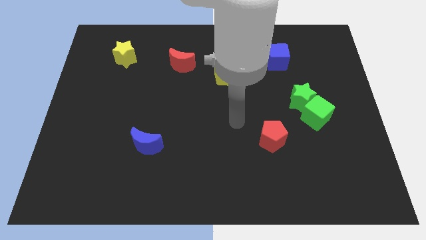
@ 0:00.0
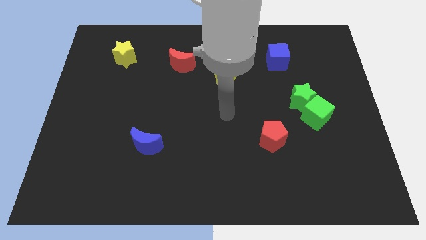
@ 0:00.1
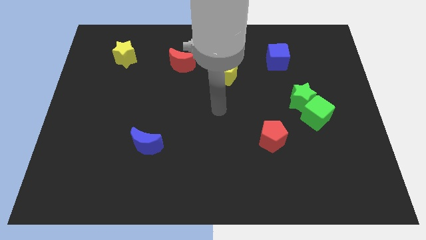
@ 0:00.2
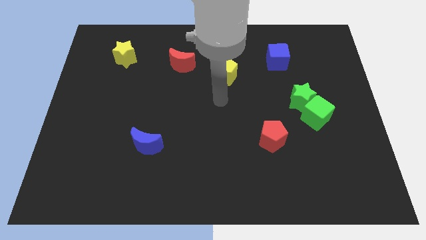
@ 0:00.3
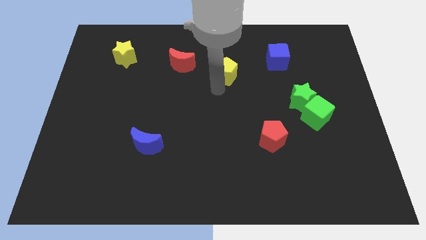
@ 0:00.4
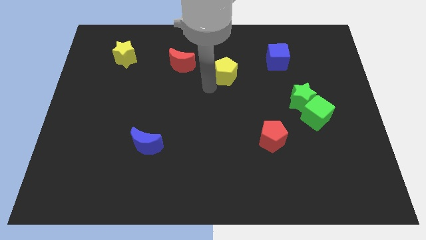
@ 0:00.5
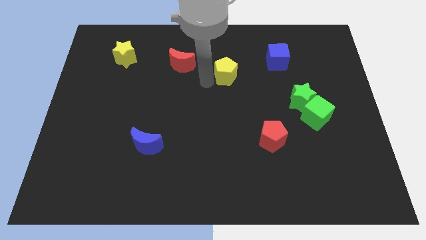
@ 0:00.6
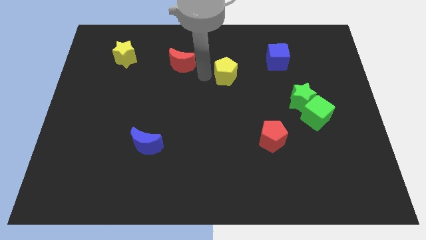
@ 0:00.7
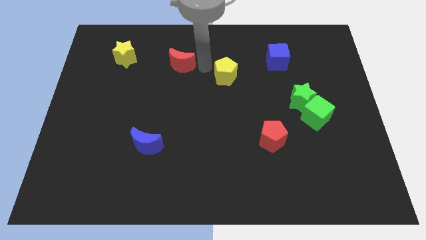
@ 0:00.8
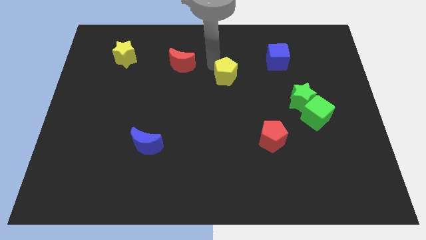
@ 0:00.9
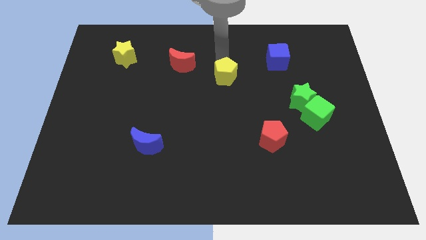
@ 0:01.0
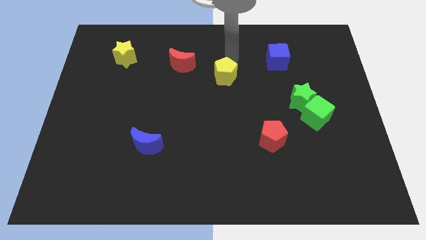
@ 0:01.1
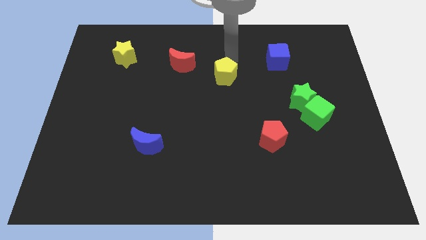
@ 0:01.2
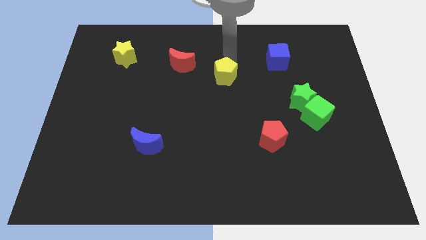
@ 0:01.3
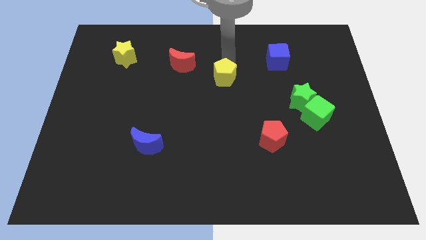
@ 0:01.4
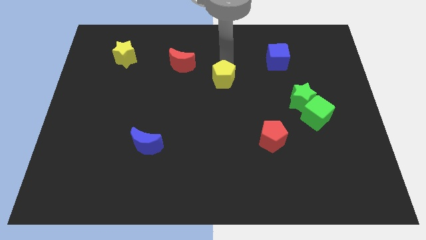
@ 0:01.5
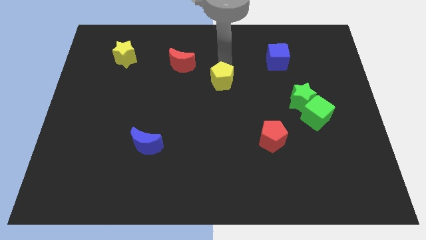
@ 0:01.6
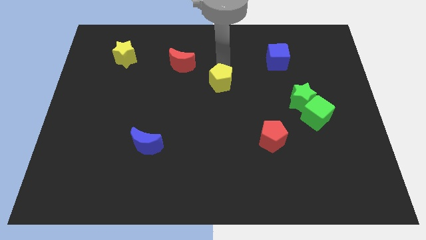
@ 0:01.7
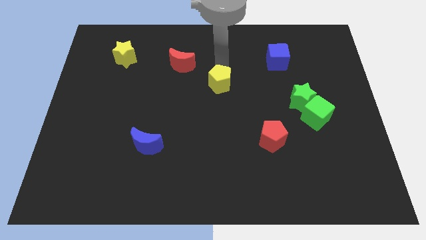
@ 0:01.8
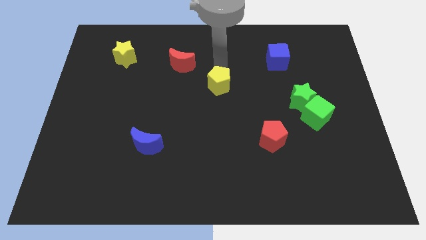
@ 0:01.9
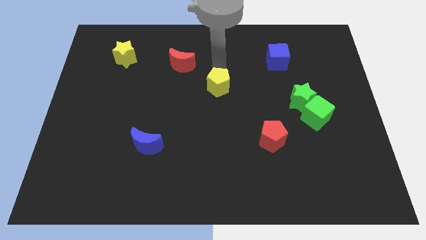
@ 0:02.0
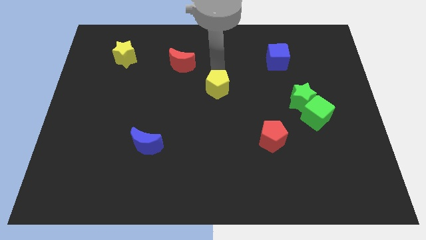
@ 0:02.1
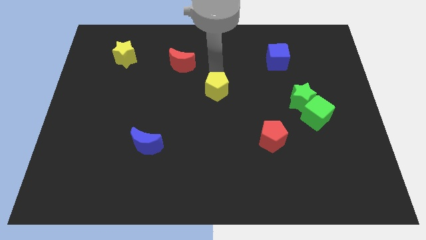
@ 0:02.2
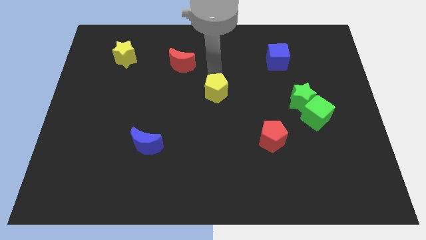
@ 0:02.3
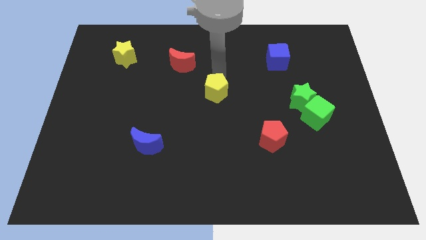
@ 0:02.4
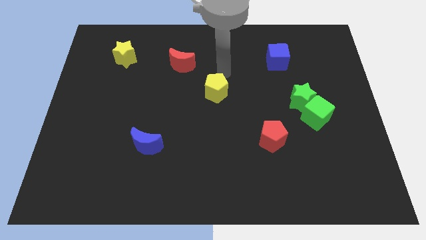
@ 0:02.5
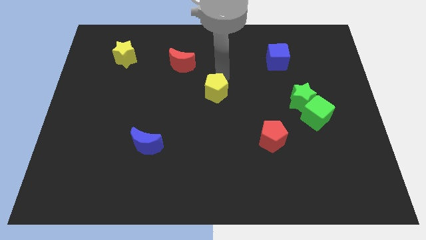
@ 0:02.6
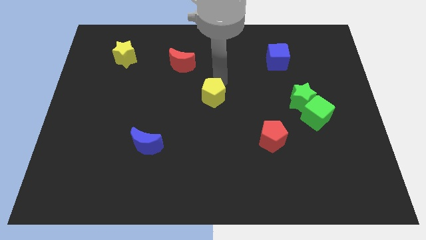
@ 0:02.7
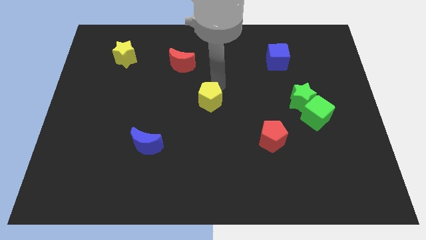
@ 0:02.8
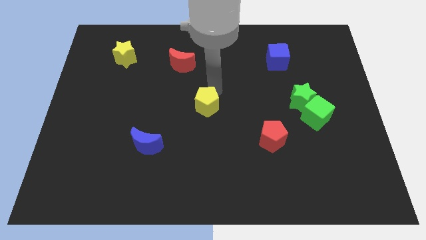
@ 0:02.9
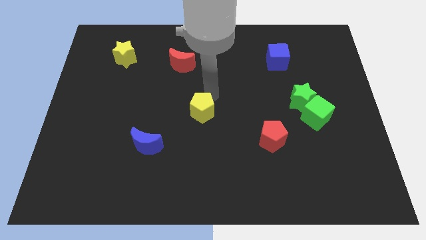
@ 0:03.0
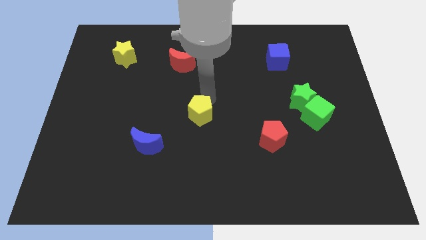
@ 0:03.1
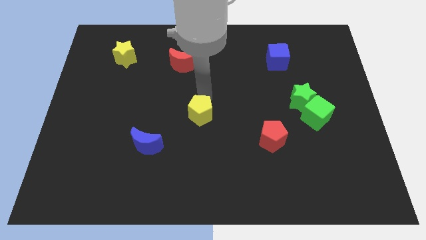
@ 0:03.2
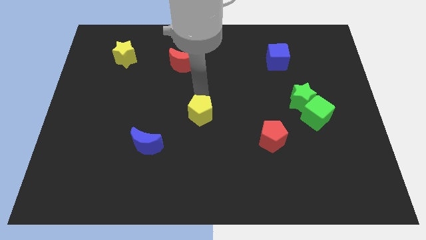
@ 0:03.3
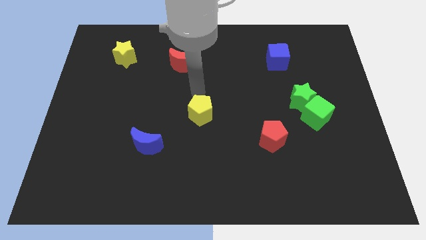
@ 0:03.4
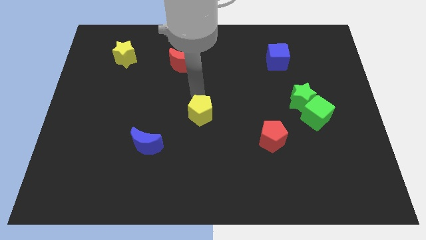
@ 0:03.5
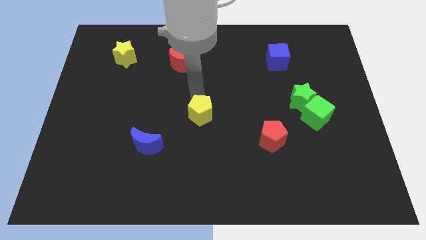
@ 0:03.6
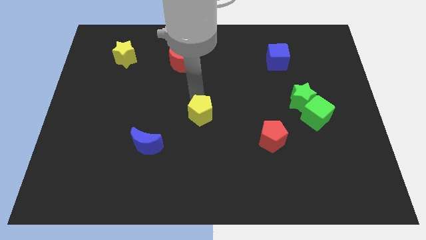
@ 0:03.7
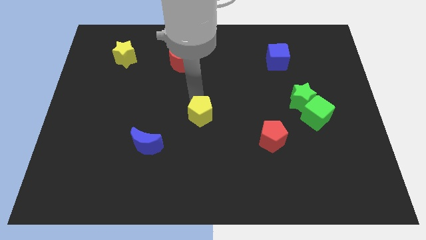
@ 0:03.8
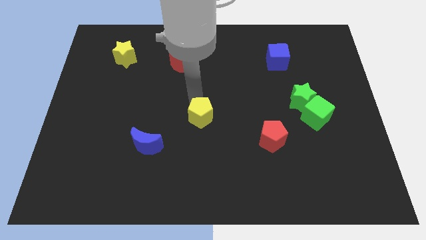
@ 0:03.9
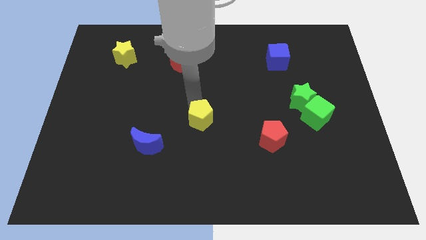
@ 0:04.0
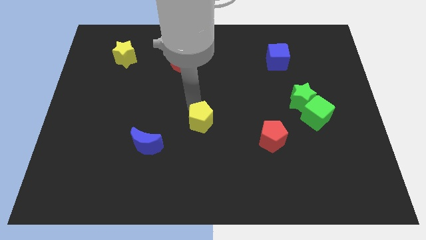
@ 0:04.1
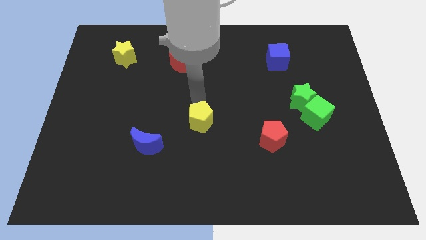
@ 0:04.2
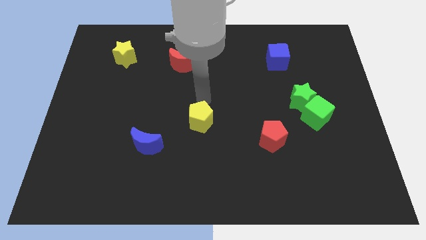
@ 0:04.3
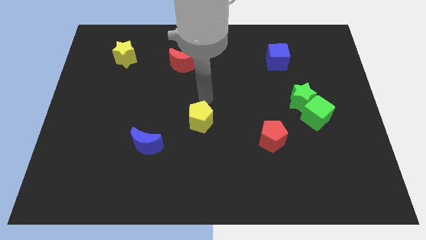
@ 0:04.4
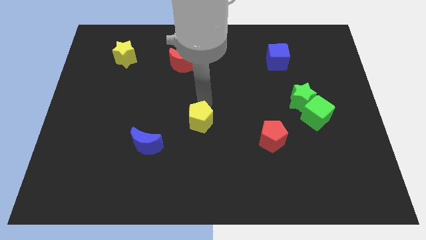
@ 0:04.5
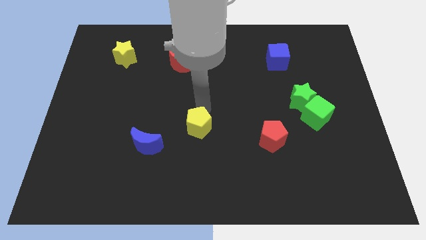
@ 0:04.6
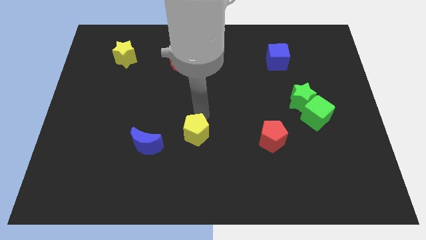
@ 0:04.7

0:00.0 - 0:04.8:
push the yellow pentagon to the right side of the blue moon

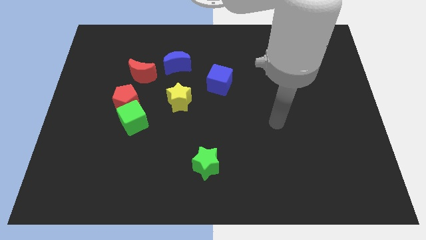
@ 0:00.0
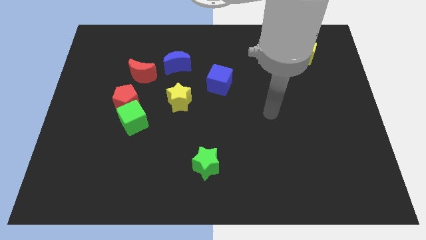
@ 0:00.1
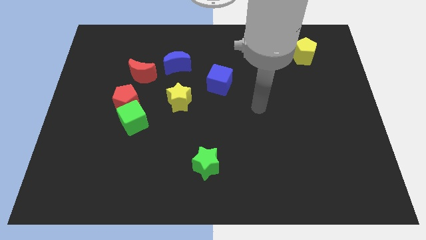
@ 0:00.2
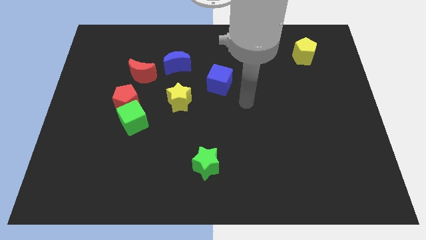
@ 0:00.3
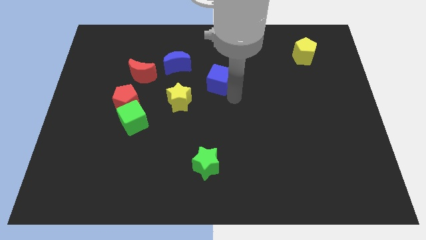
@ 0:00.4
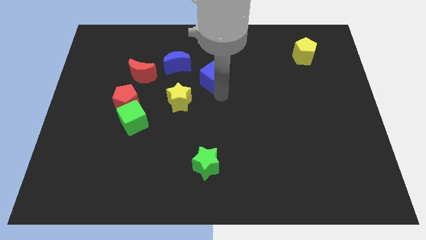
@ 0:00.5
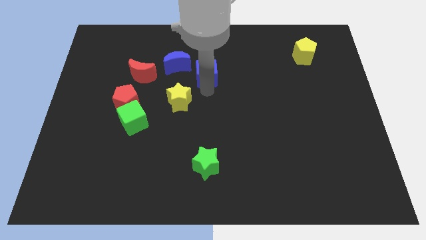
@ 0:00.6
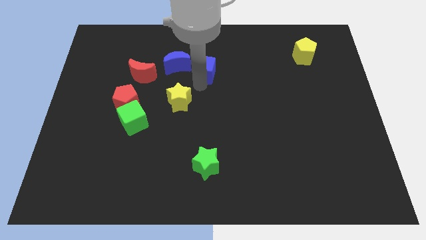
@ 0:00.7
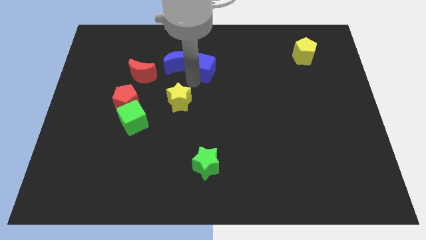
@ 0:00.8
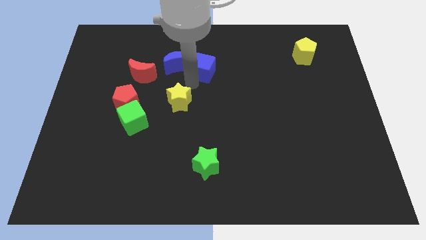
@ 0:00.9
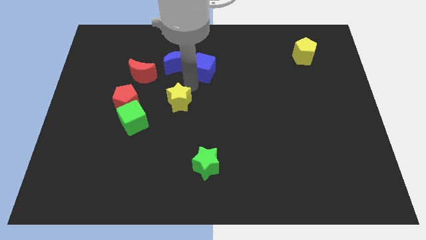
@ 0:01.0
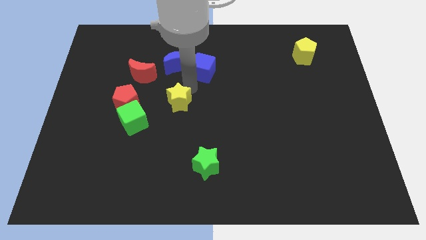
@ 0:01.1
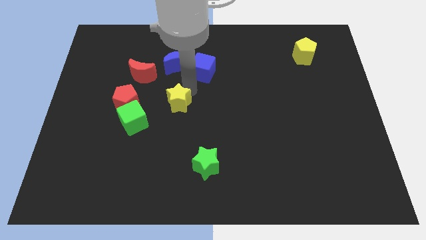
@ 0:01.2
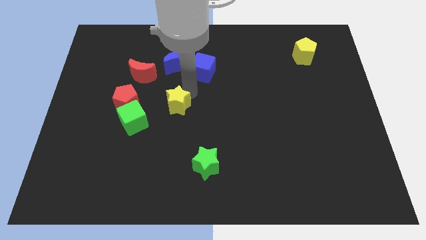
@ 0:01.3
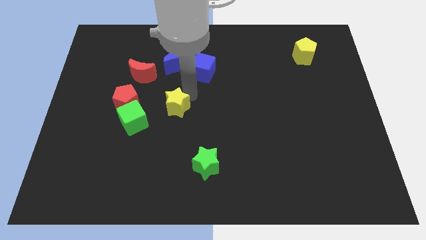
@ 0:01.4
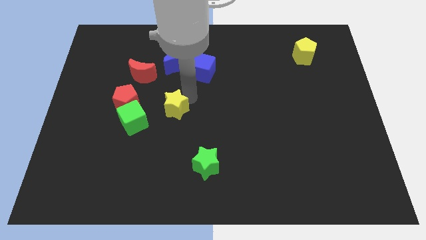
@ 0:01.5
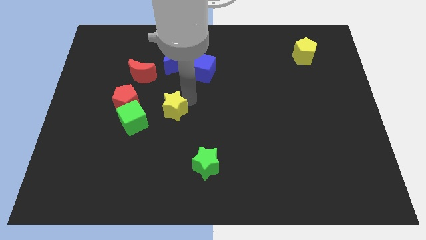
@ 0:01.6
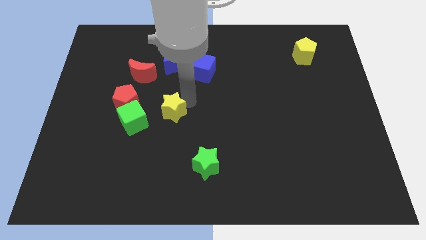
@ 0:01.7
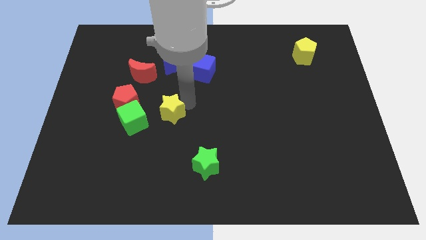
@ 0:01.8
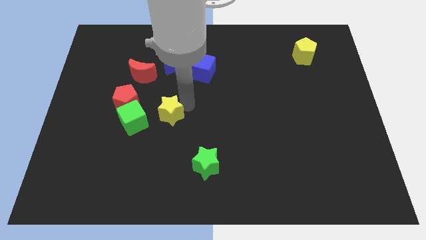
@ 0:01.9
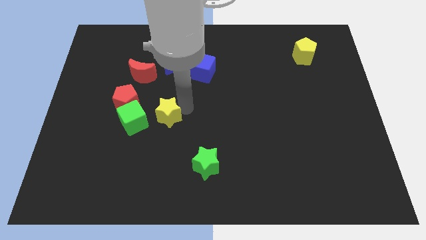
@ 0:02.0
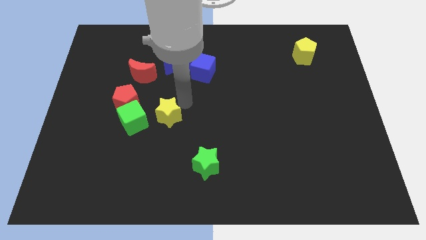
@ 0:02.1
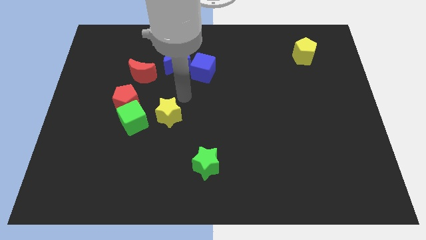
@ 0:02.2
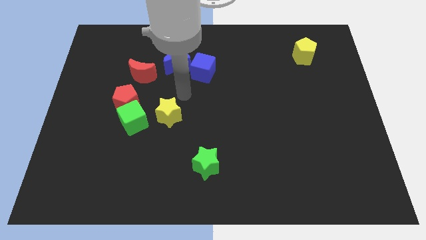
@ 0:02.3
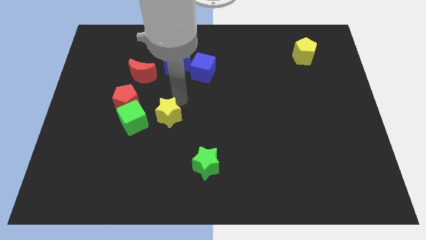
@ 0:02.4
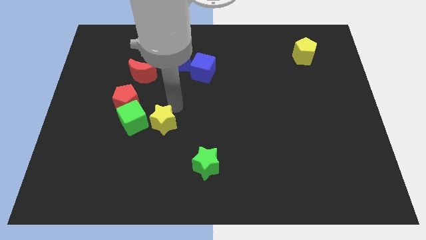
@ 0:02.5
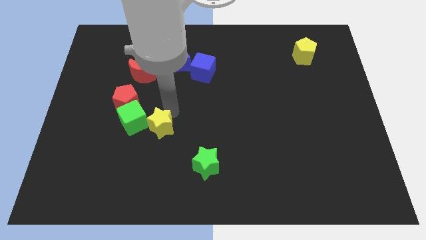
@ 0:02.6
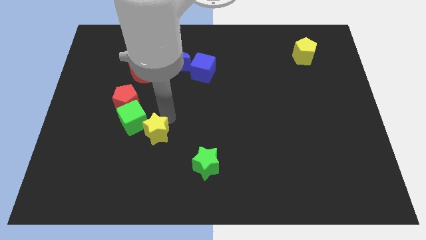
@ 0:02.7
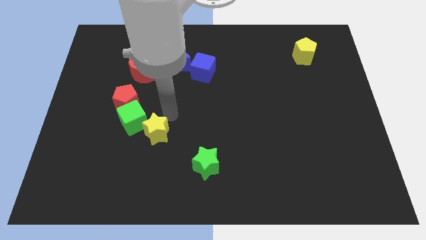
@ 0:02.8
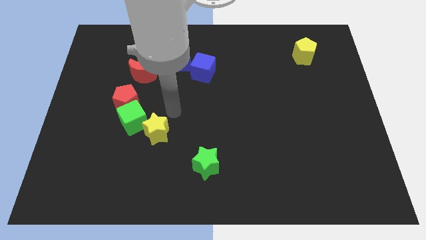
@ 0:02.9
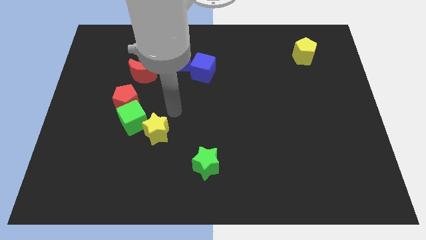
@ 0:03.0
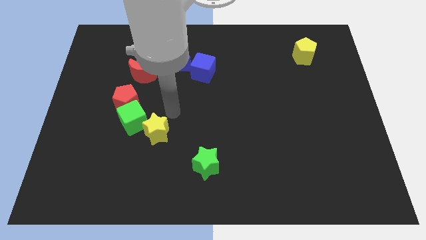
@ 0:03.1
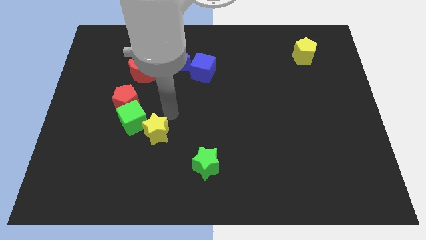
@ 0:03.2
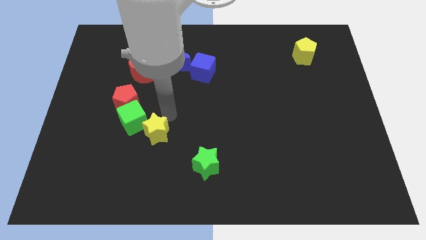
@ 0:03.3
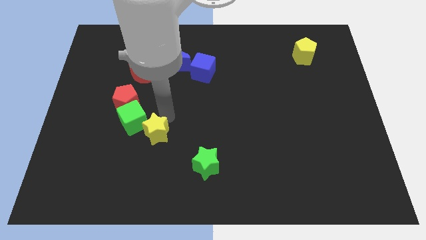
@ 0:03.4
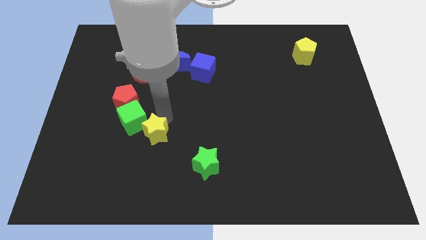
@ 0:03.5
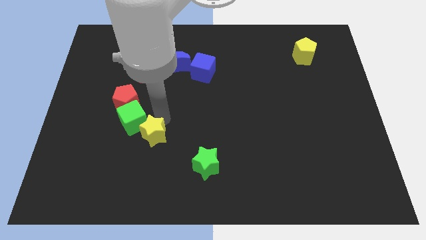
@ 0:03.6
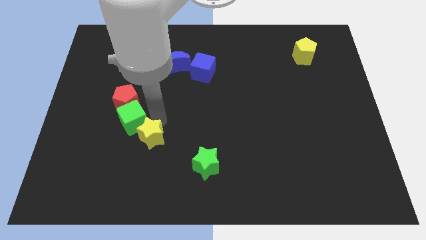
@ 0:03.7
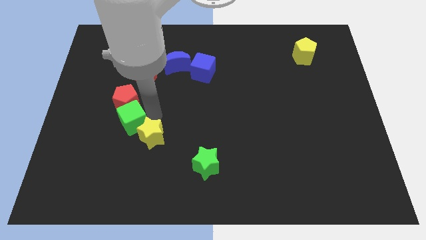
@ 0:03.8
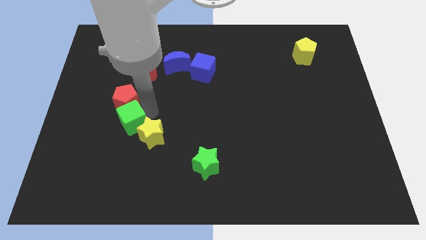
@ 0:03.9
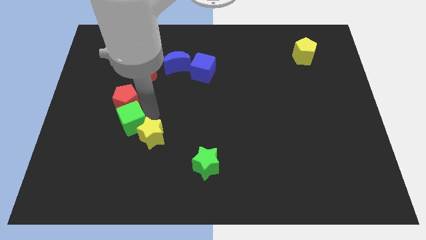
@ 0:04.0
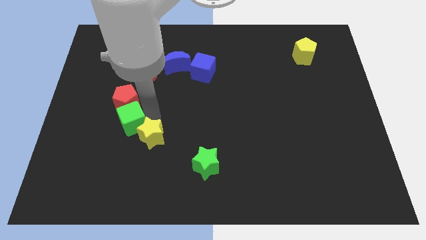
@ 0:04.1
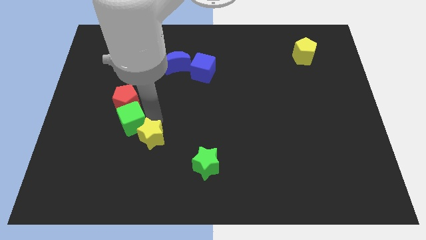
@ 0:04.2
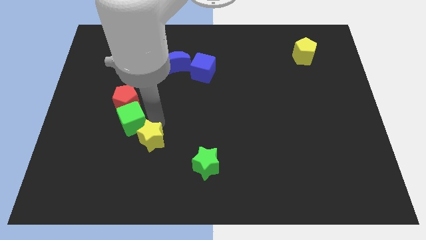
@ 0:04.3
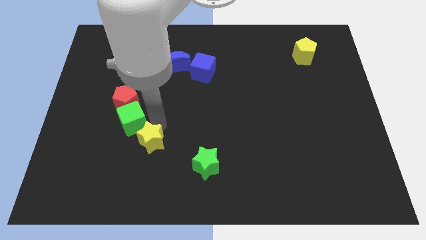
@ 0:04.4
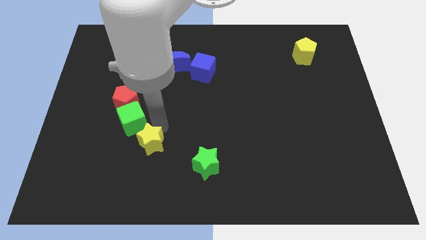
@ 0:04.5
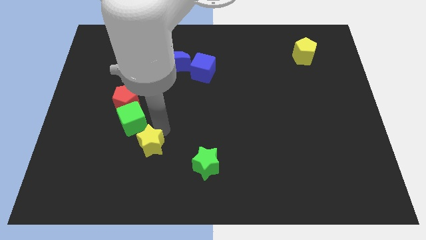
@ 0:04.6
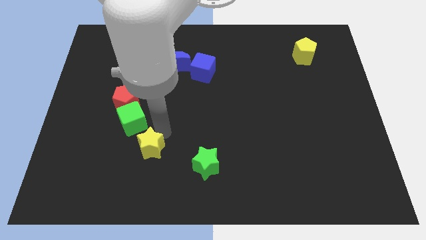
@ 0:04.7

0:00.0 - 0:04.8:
slide the yellow star to the left of the green star
